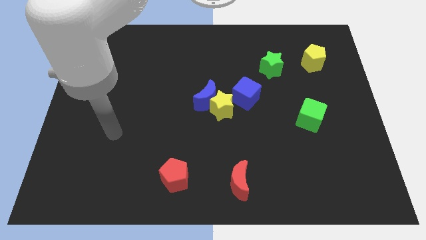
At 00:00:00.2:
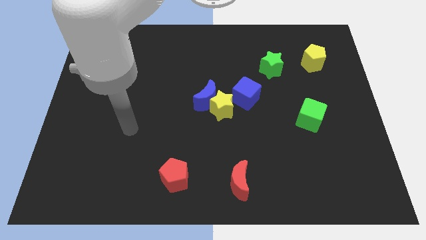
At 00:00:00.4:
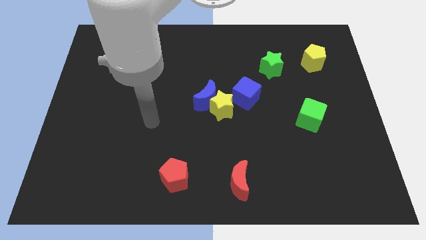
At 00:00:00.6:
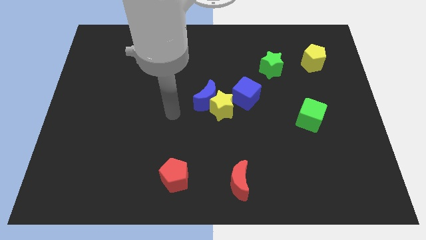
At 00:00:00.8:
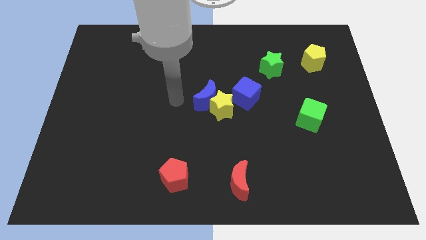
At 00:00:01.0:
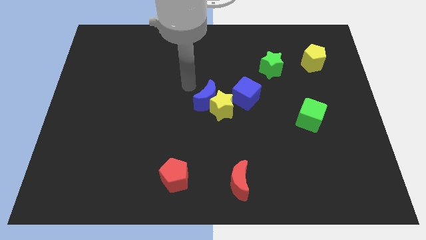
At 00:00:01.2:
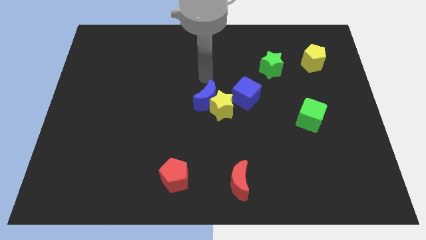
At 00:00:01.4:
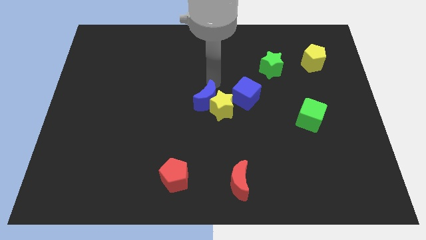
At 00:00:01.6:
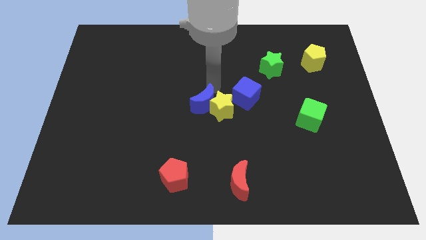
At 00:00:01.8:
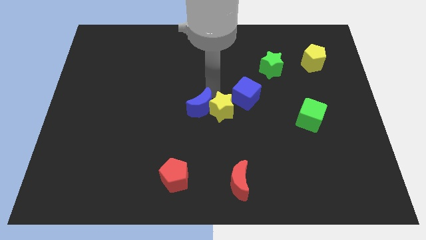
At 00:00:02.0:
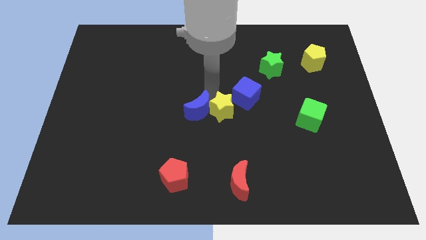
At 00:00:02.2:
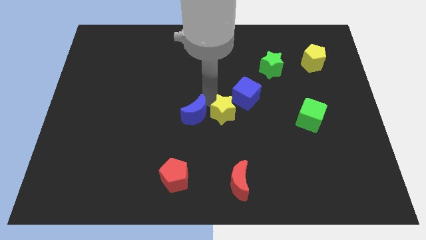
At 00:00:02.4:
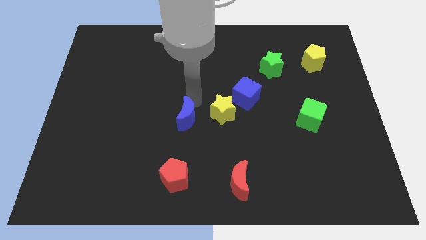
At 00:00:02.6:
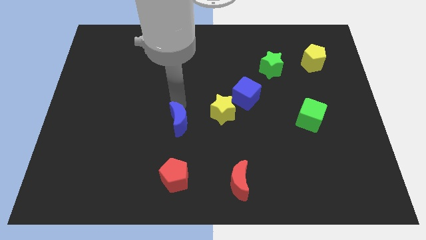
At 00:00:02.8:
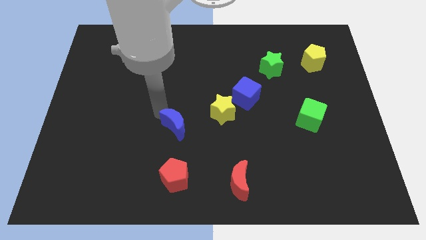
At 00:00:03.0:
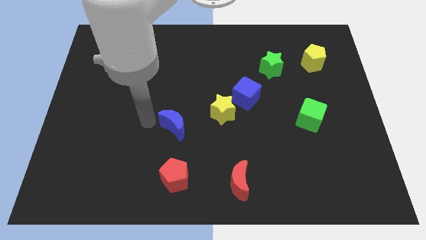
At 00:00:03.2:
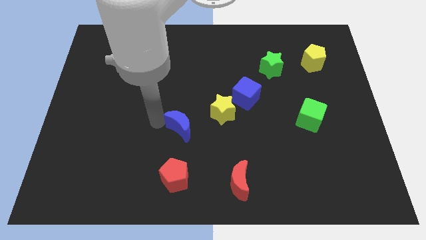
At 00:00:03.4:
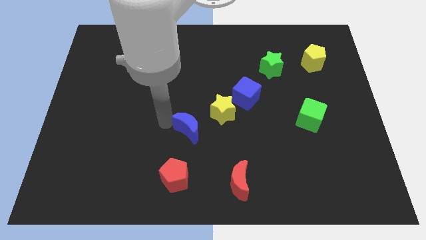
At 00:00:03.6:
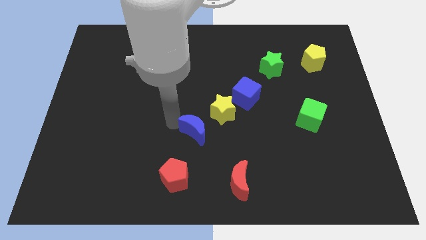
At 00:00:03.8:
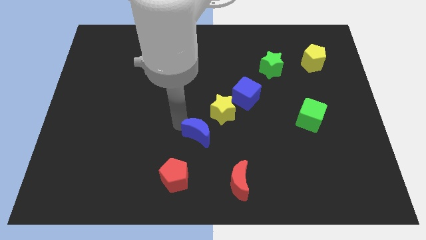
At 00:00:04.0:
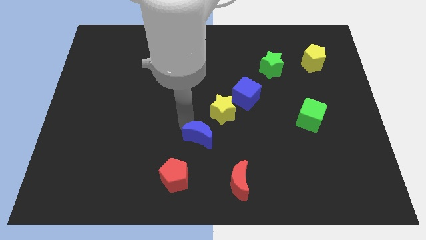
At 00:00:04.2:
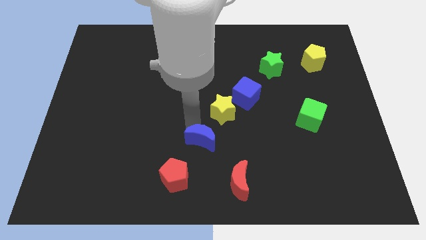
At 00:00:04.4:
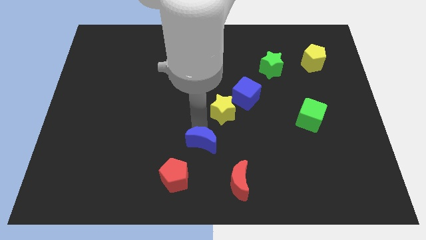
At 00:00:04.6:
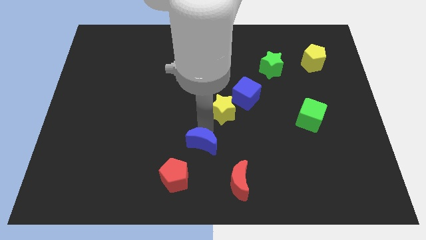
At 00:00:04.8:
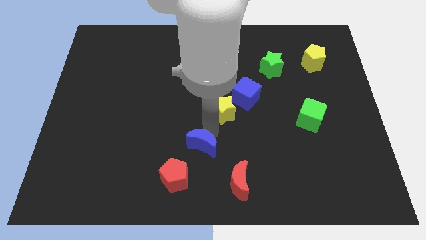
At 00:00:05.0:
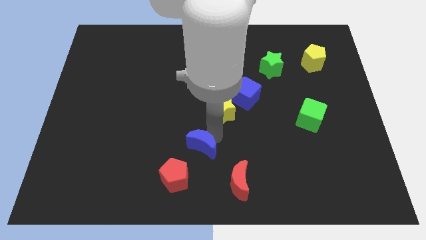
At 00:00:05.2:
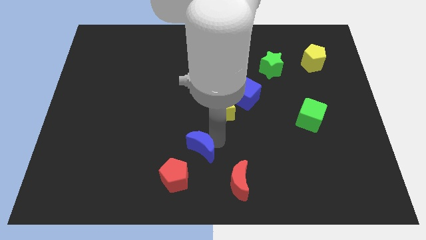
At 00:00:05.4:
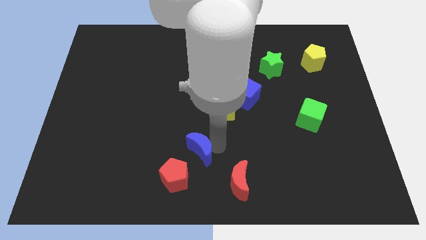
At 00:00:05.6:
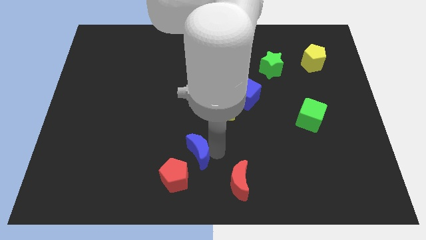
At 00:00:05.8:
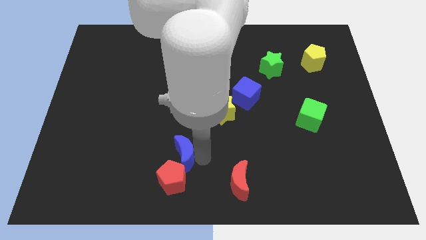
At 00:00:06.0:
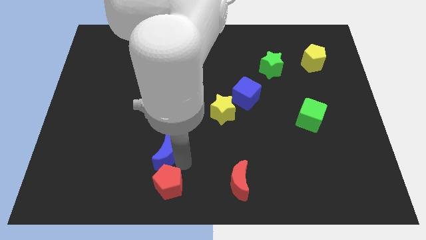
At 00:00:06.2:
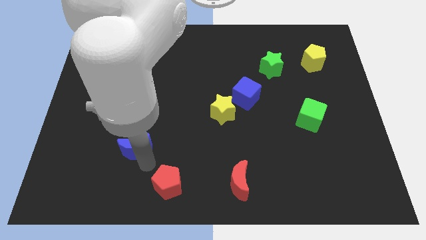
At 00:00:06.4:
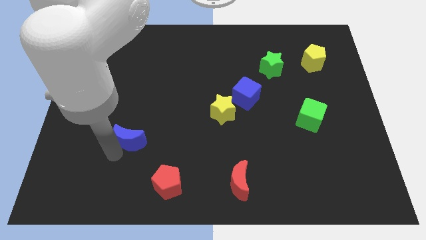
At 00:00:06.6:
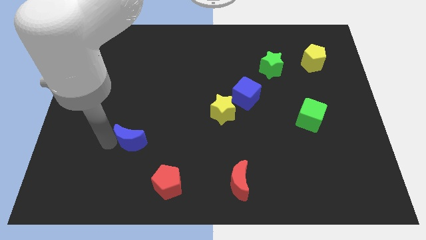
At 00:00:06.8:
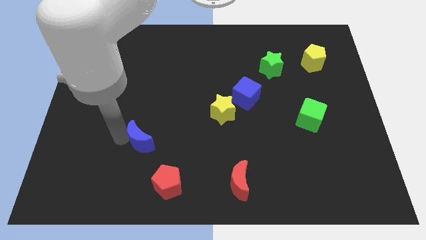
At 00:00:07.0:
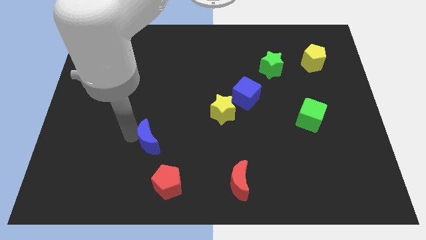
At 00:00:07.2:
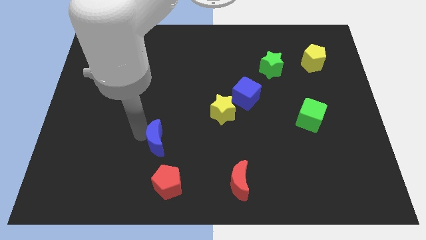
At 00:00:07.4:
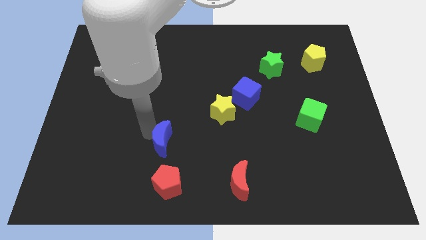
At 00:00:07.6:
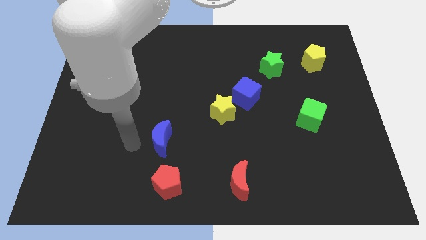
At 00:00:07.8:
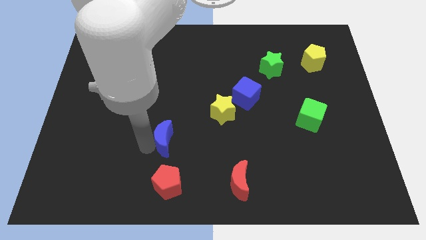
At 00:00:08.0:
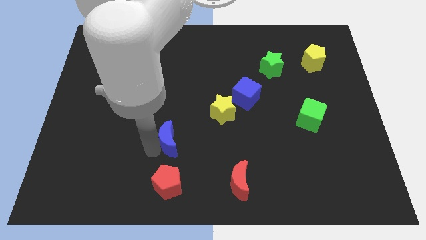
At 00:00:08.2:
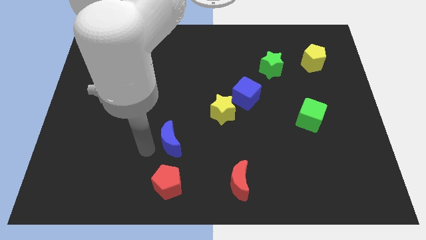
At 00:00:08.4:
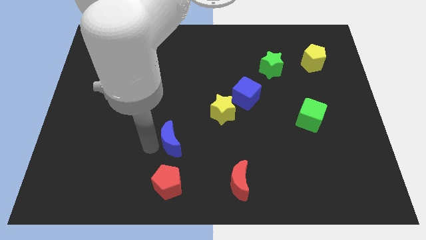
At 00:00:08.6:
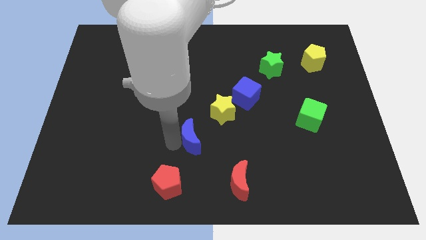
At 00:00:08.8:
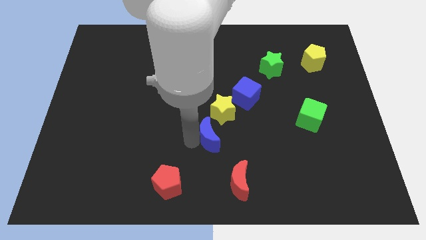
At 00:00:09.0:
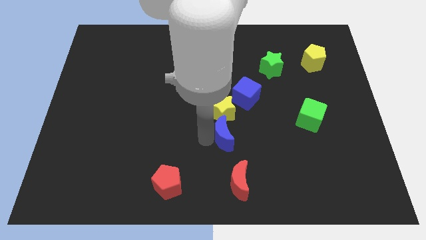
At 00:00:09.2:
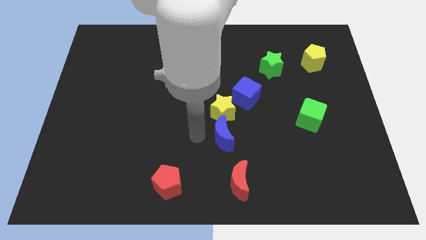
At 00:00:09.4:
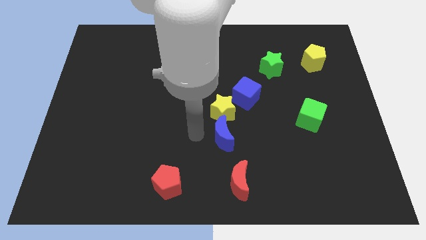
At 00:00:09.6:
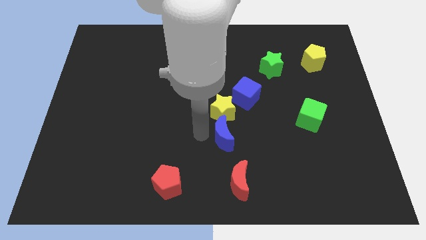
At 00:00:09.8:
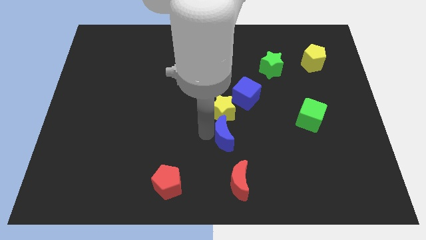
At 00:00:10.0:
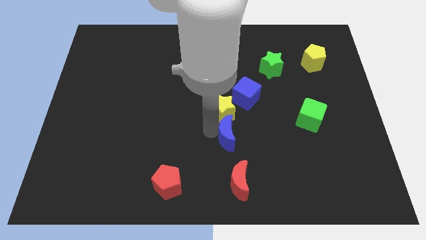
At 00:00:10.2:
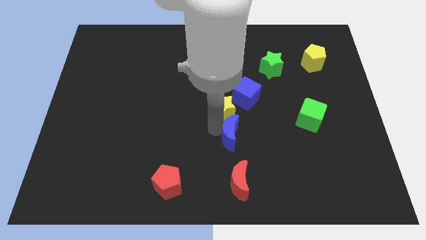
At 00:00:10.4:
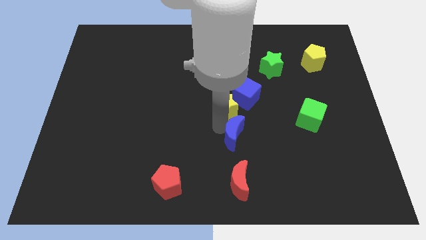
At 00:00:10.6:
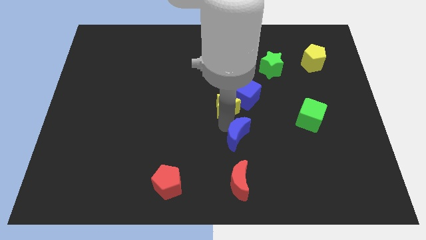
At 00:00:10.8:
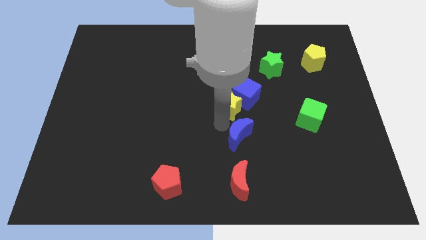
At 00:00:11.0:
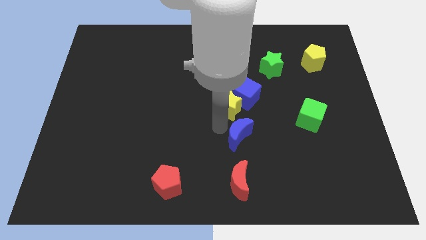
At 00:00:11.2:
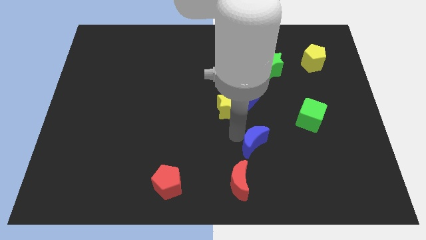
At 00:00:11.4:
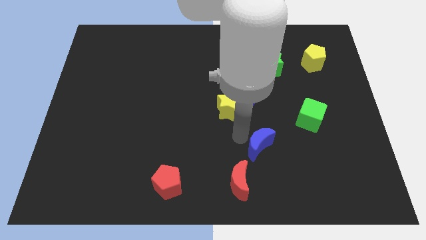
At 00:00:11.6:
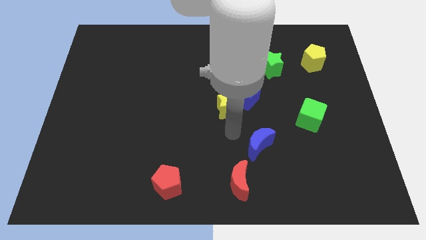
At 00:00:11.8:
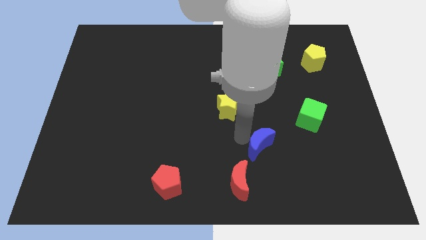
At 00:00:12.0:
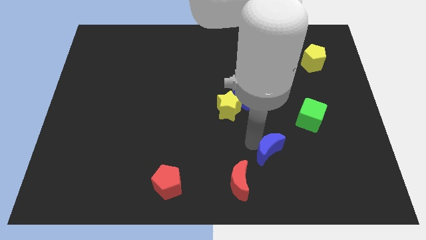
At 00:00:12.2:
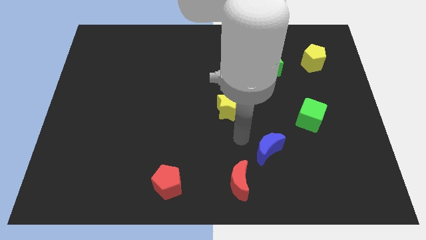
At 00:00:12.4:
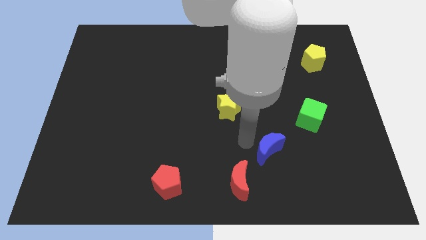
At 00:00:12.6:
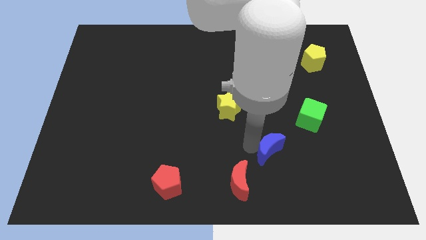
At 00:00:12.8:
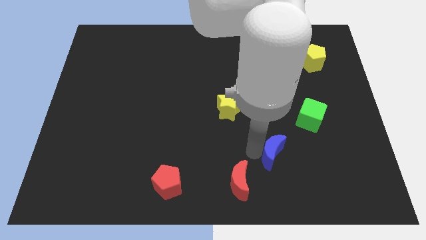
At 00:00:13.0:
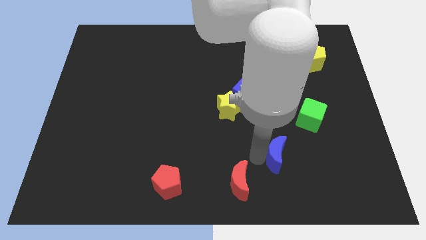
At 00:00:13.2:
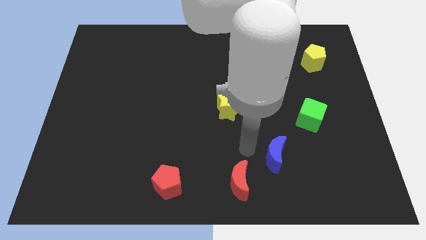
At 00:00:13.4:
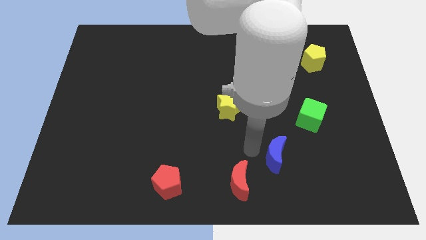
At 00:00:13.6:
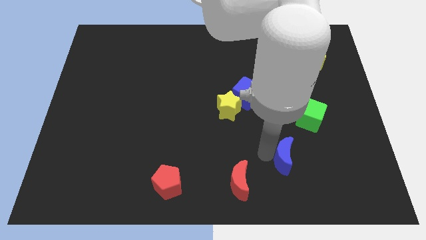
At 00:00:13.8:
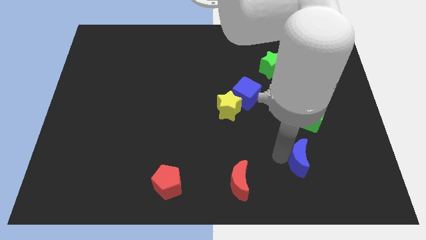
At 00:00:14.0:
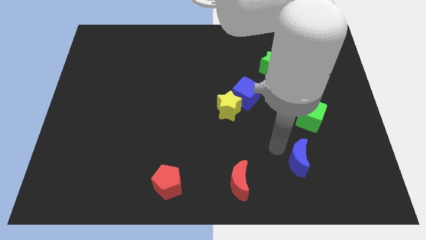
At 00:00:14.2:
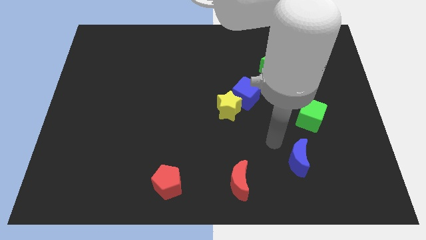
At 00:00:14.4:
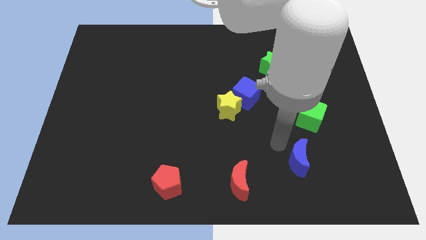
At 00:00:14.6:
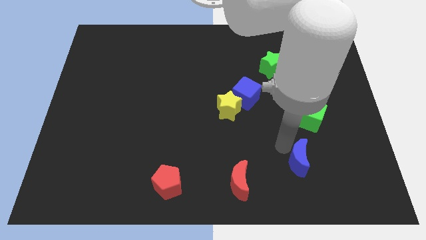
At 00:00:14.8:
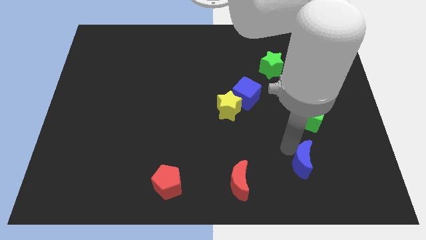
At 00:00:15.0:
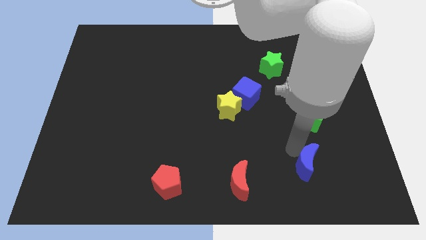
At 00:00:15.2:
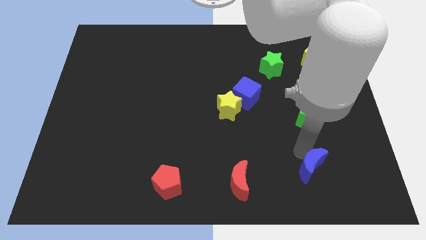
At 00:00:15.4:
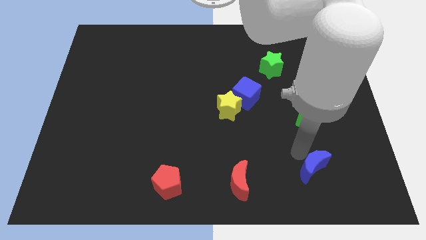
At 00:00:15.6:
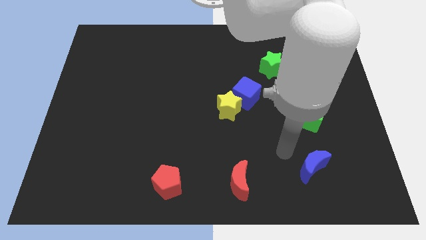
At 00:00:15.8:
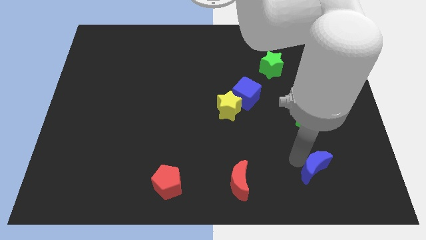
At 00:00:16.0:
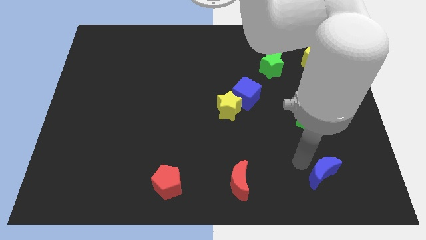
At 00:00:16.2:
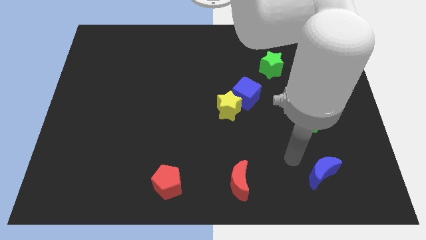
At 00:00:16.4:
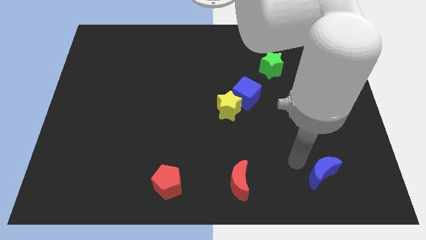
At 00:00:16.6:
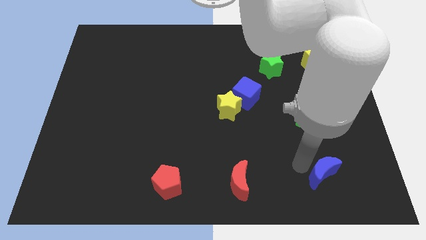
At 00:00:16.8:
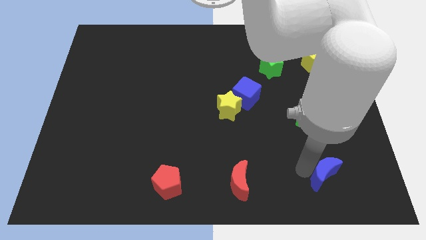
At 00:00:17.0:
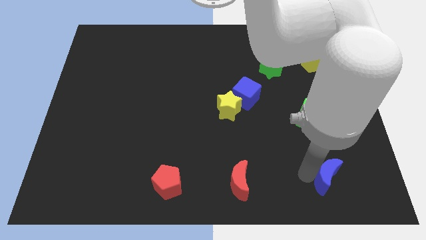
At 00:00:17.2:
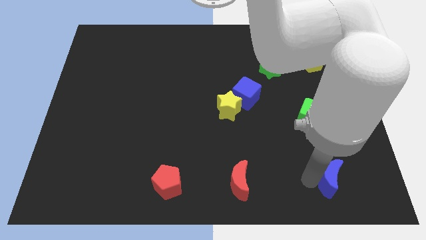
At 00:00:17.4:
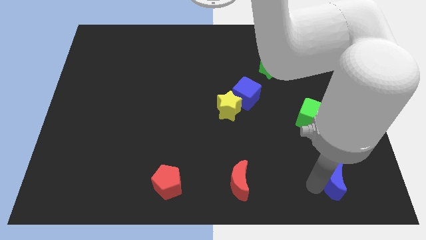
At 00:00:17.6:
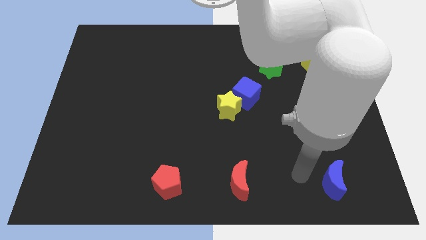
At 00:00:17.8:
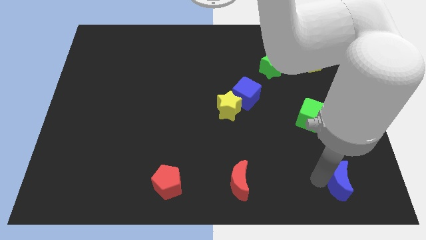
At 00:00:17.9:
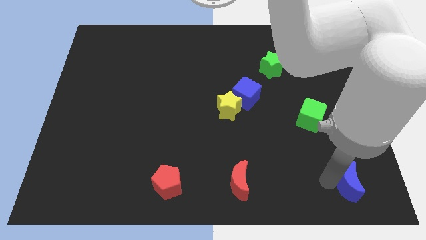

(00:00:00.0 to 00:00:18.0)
move the blue moon to the bottom right
